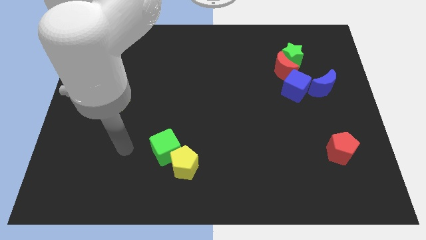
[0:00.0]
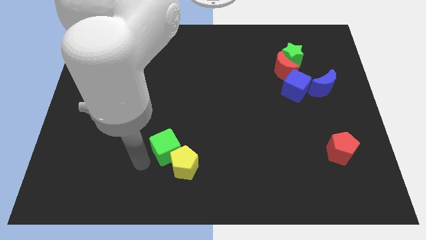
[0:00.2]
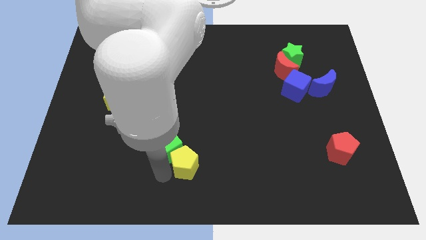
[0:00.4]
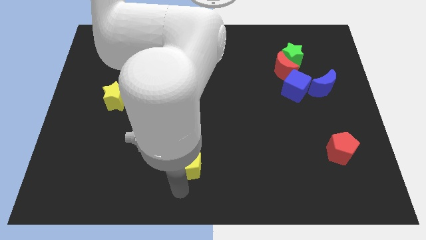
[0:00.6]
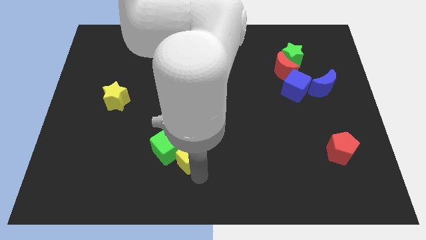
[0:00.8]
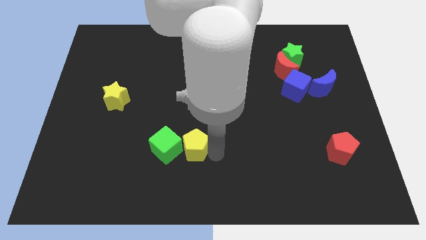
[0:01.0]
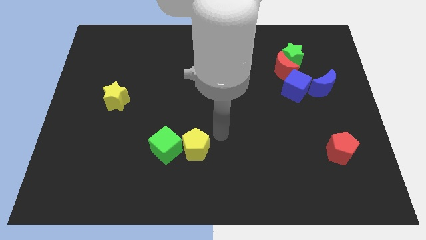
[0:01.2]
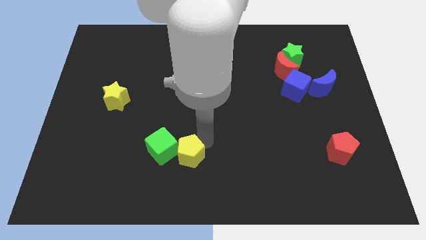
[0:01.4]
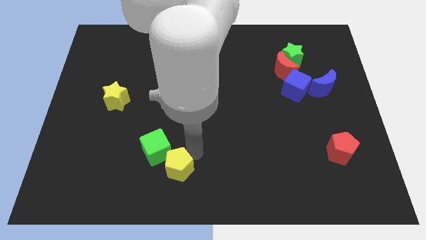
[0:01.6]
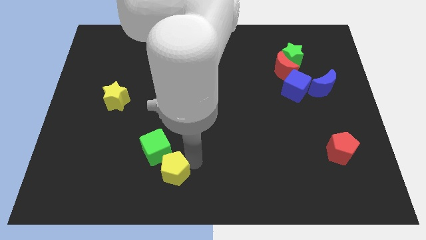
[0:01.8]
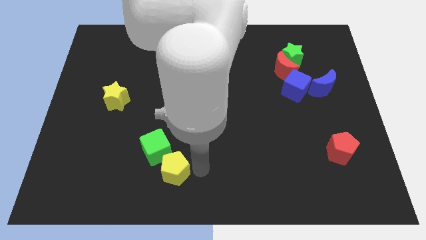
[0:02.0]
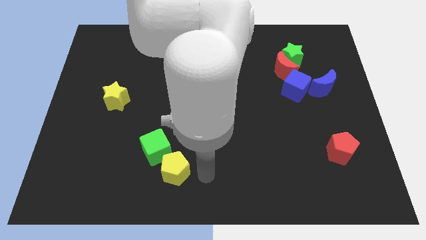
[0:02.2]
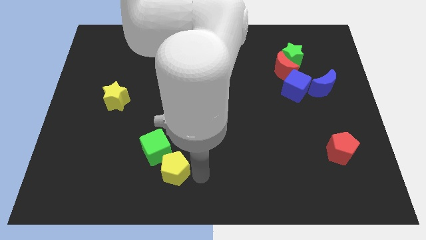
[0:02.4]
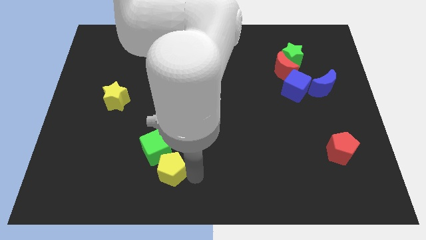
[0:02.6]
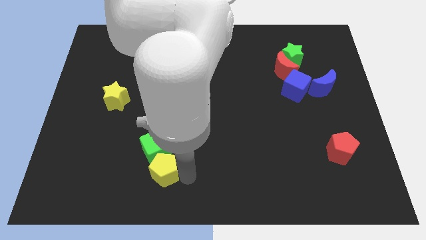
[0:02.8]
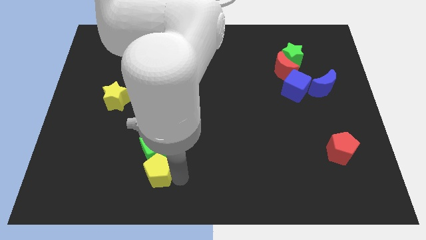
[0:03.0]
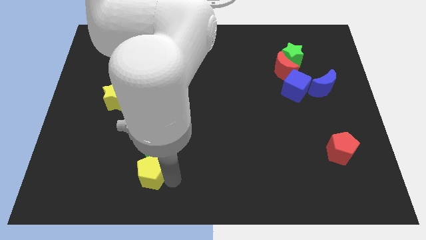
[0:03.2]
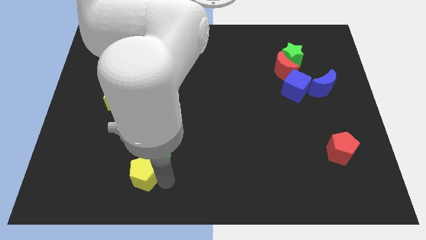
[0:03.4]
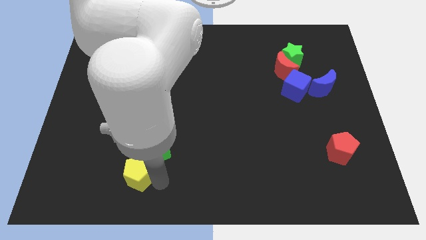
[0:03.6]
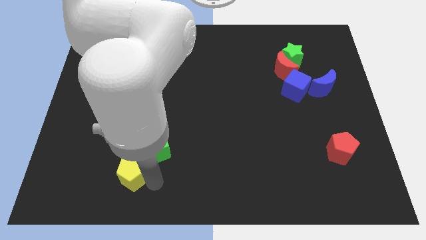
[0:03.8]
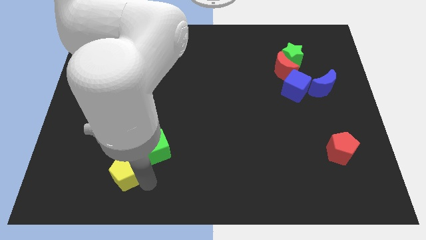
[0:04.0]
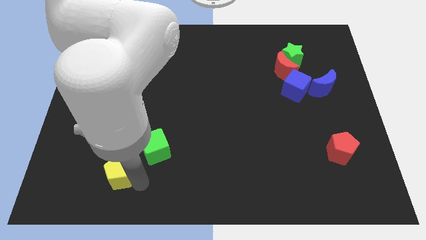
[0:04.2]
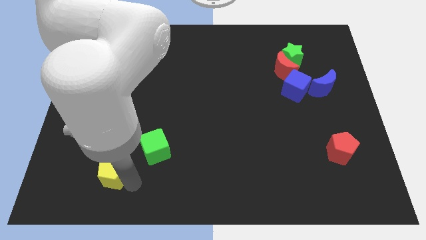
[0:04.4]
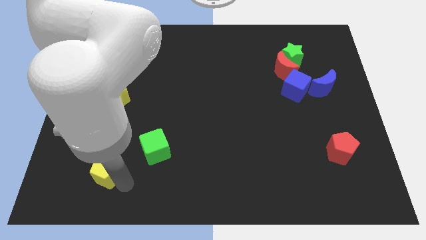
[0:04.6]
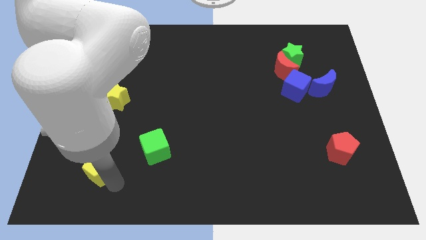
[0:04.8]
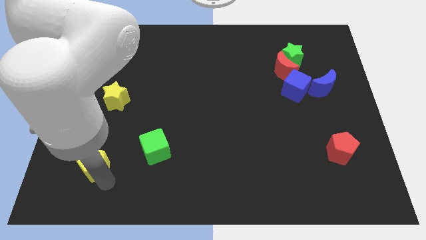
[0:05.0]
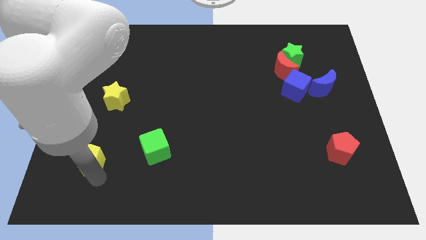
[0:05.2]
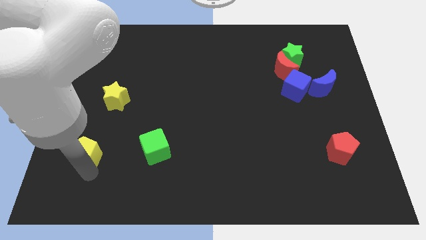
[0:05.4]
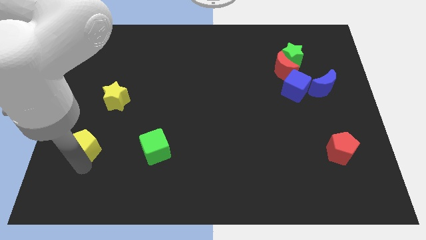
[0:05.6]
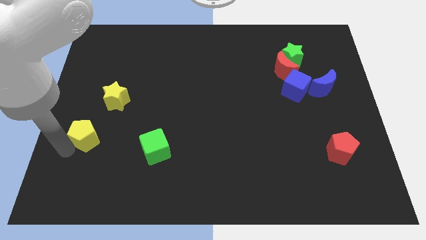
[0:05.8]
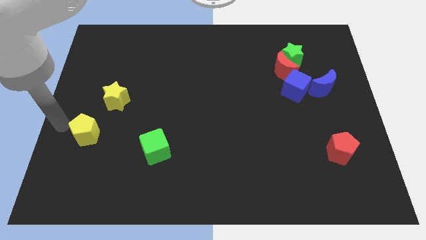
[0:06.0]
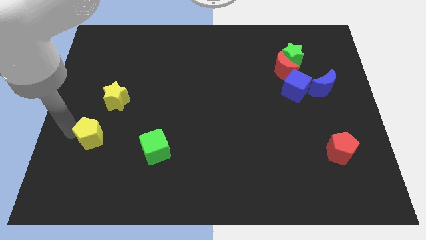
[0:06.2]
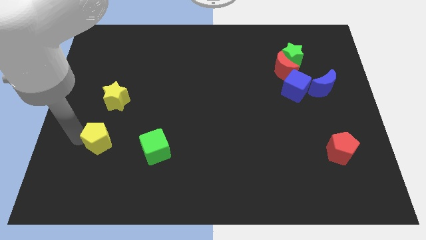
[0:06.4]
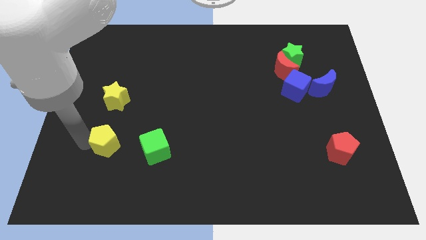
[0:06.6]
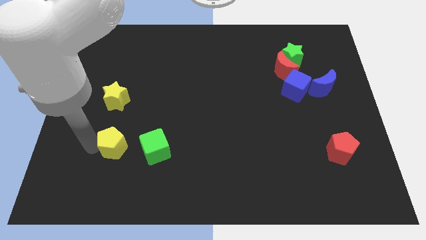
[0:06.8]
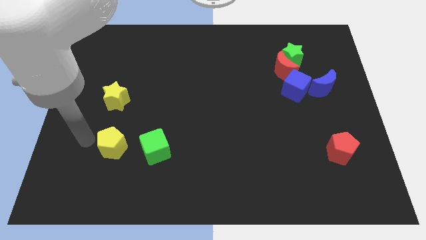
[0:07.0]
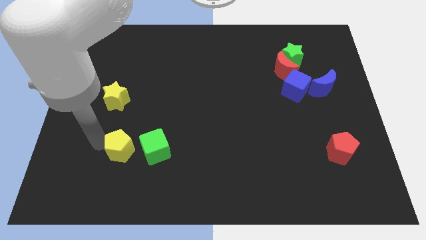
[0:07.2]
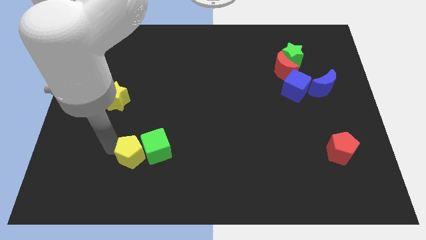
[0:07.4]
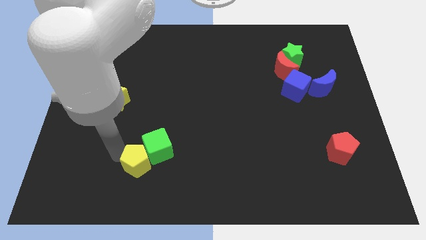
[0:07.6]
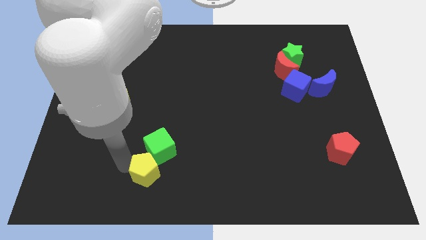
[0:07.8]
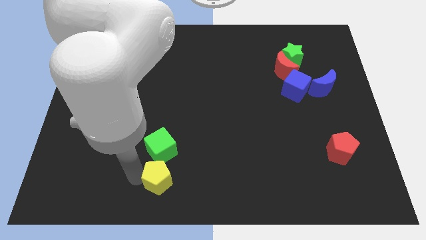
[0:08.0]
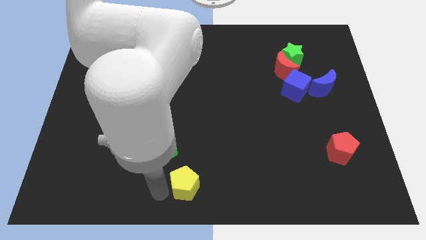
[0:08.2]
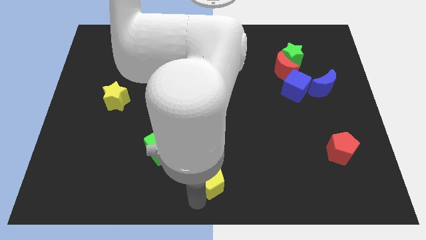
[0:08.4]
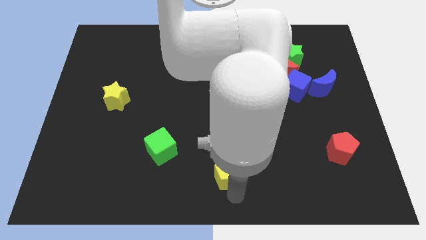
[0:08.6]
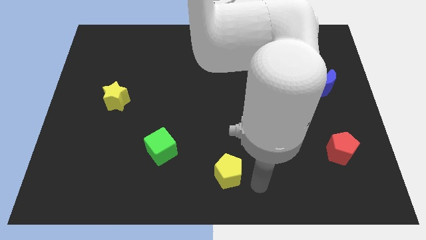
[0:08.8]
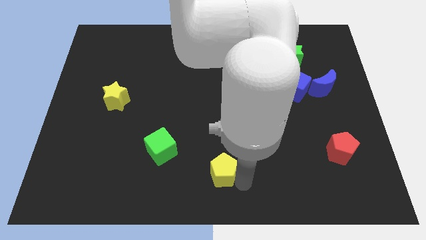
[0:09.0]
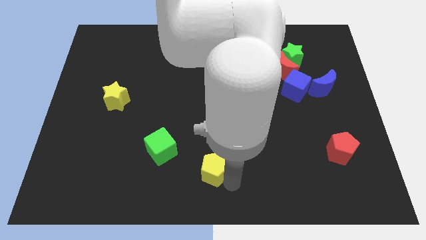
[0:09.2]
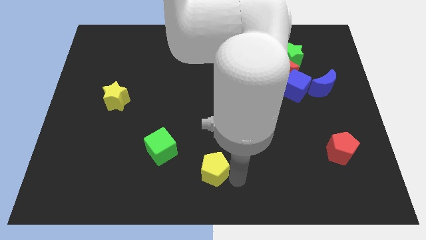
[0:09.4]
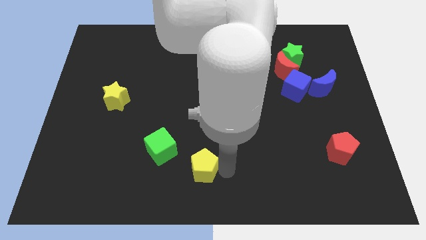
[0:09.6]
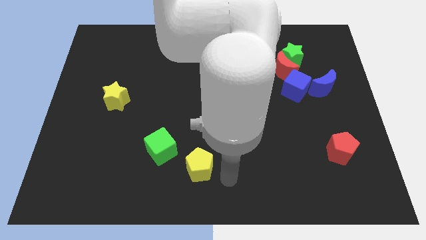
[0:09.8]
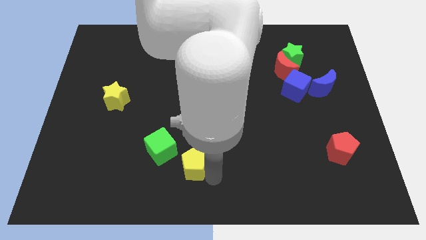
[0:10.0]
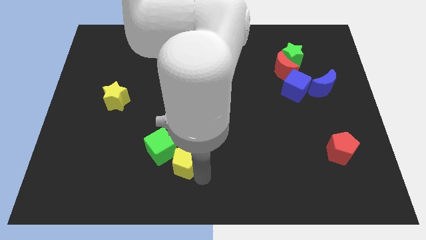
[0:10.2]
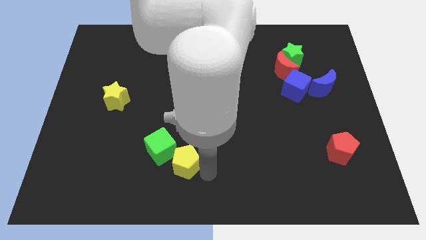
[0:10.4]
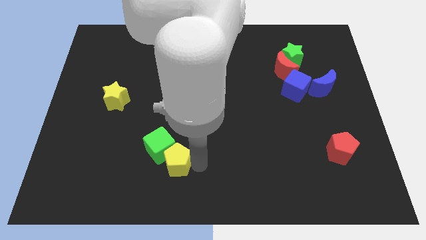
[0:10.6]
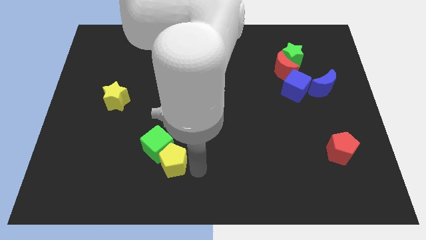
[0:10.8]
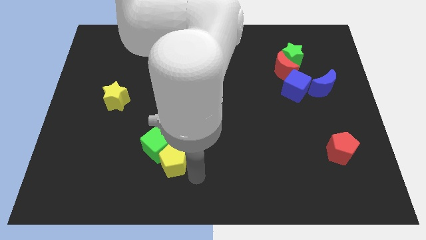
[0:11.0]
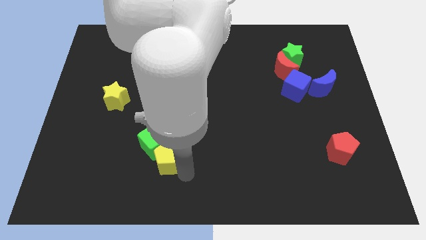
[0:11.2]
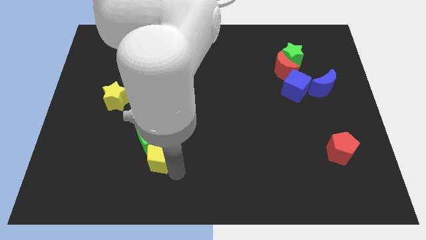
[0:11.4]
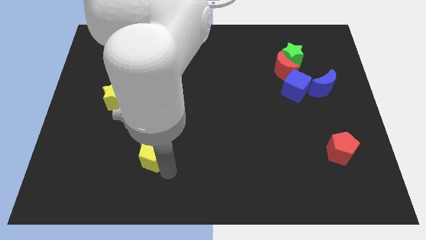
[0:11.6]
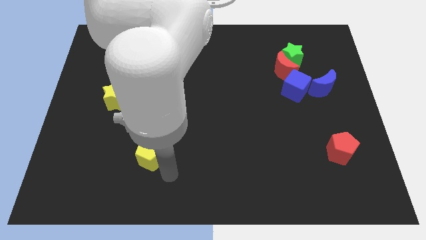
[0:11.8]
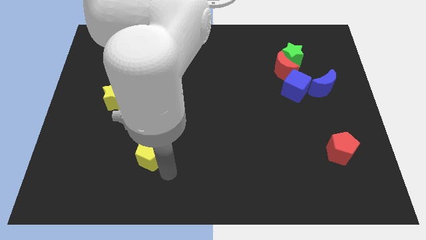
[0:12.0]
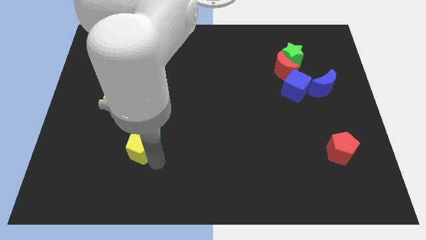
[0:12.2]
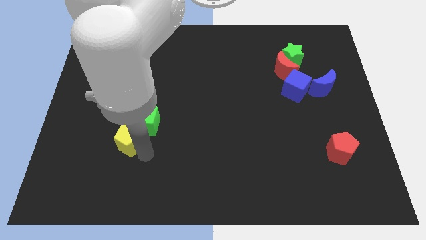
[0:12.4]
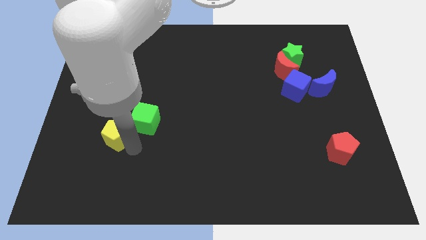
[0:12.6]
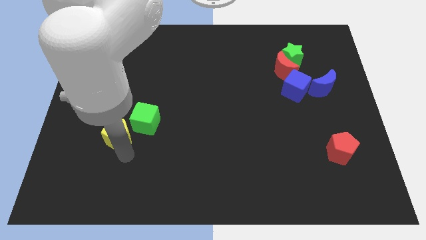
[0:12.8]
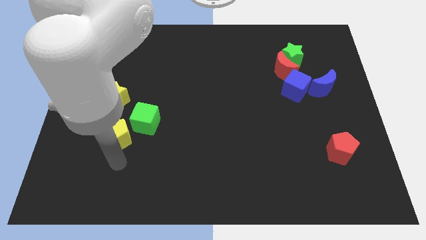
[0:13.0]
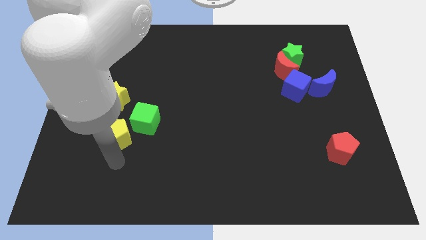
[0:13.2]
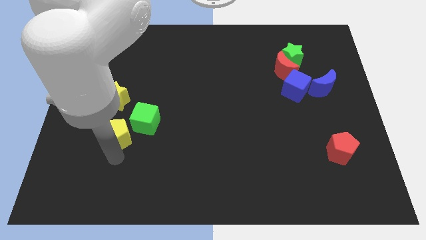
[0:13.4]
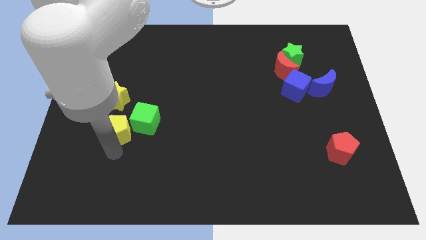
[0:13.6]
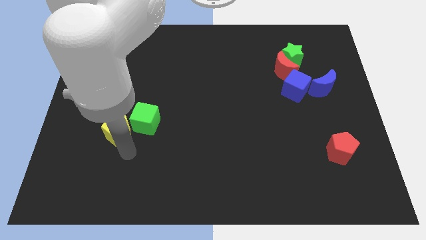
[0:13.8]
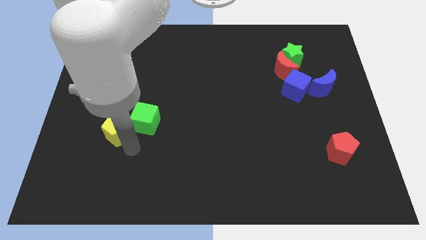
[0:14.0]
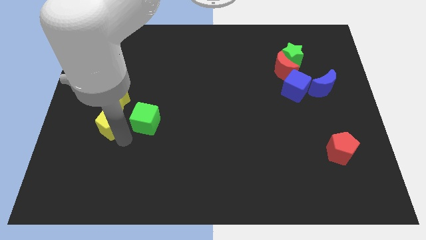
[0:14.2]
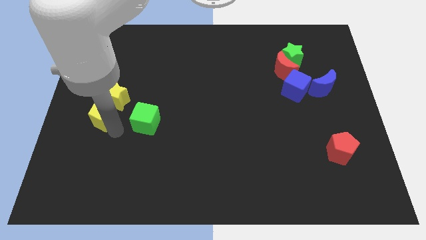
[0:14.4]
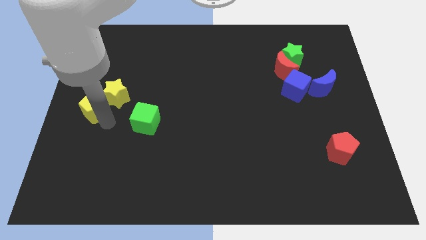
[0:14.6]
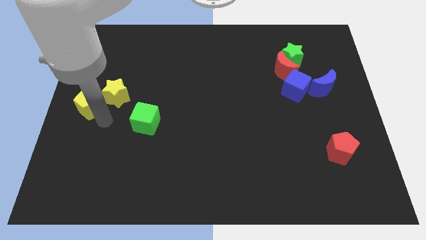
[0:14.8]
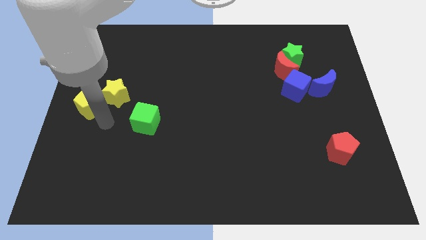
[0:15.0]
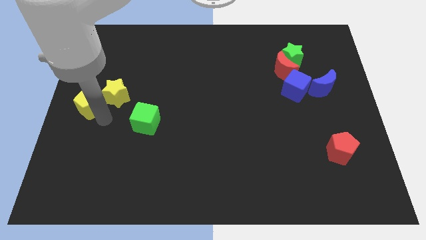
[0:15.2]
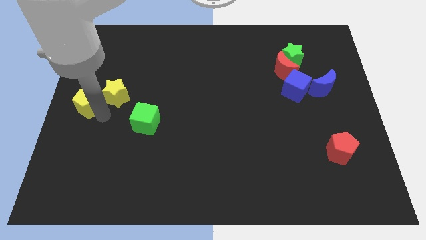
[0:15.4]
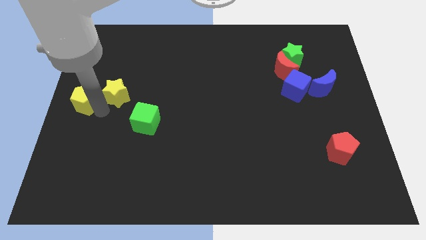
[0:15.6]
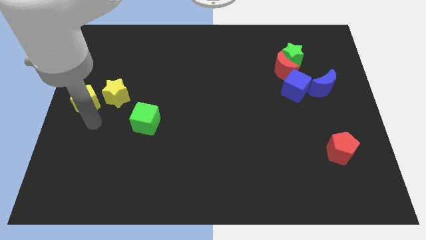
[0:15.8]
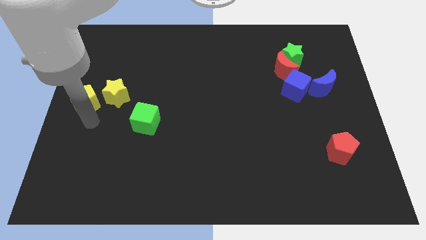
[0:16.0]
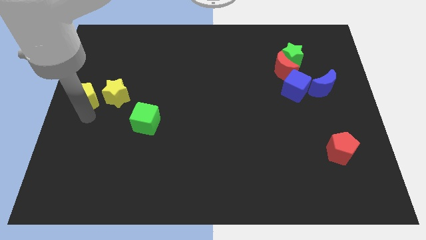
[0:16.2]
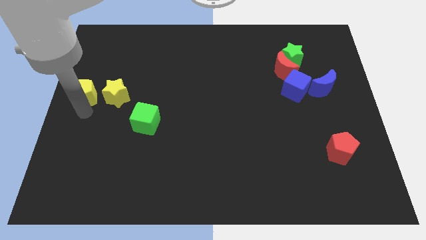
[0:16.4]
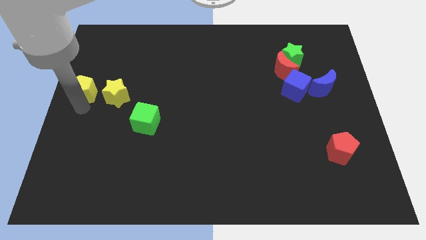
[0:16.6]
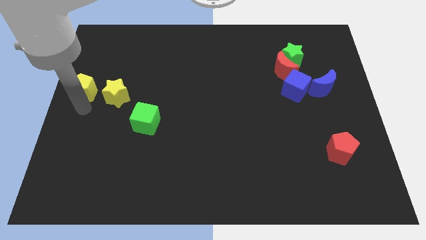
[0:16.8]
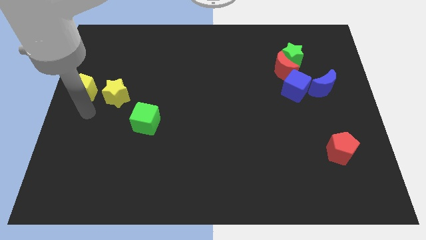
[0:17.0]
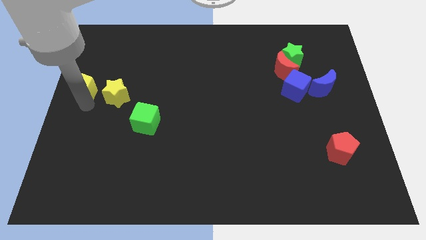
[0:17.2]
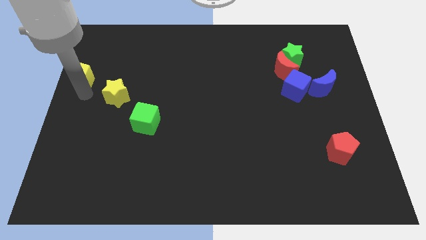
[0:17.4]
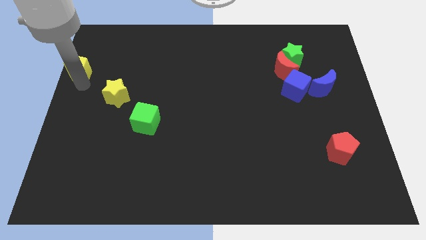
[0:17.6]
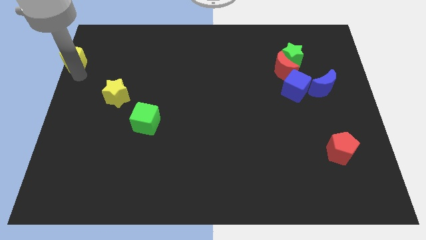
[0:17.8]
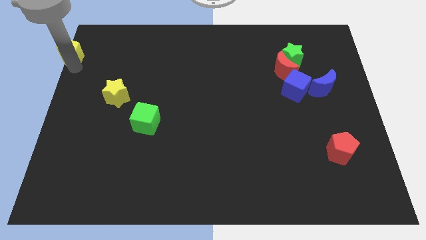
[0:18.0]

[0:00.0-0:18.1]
slide the yellow pentagon to the top left
